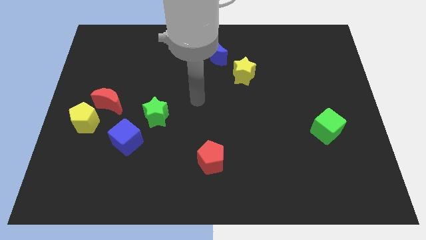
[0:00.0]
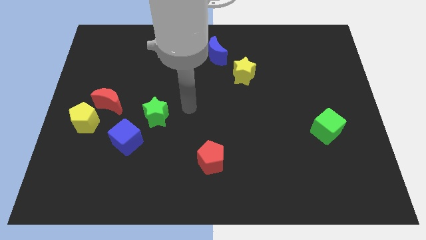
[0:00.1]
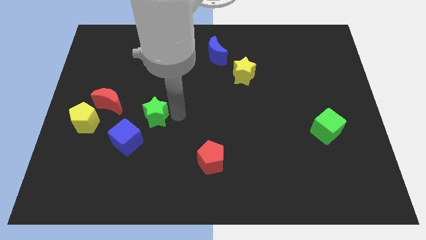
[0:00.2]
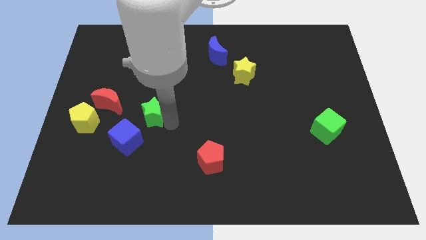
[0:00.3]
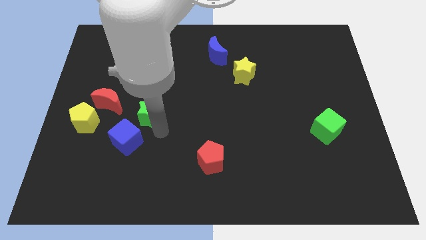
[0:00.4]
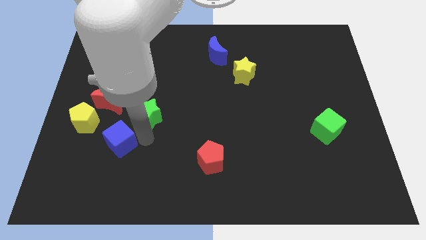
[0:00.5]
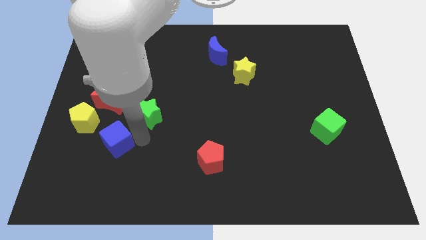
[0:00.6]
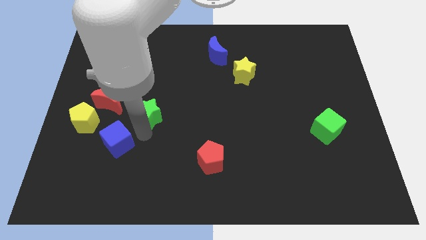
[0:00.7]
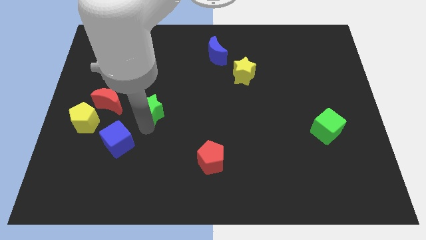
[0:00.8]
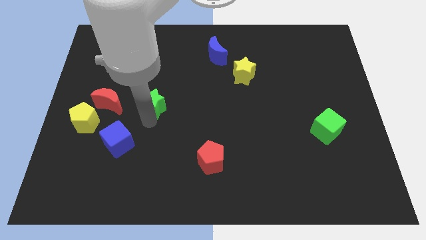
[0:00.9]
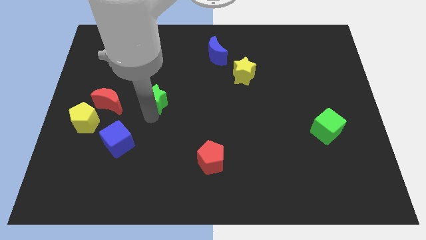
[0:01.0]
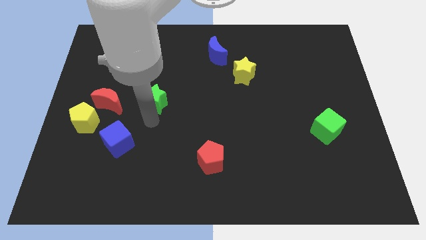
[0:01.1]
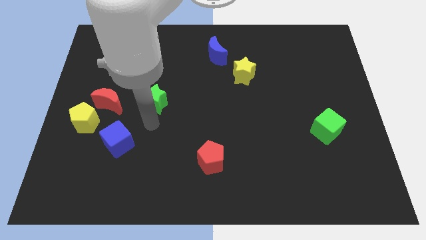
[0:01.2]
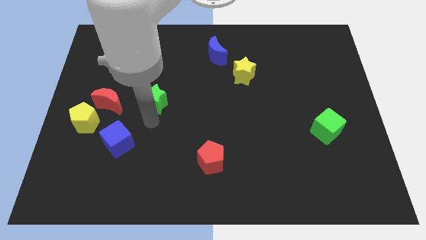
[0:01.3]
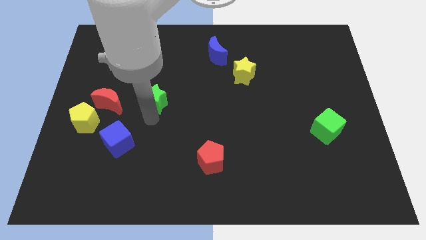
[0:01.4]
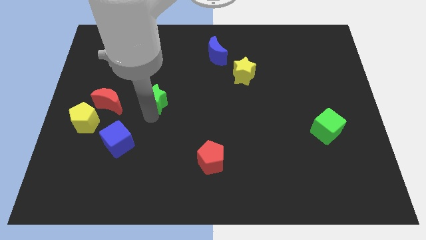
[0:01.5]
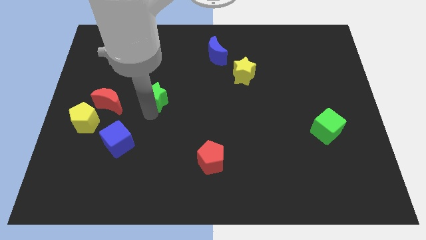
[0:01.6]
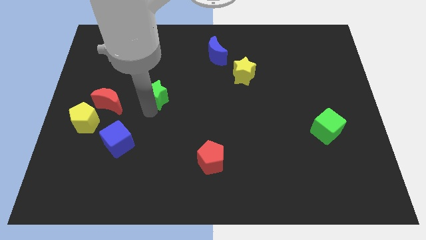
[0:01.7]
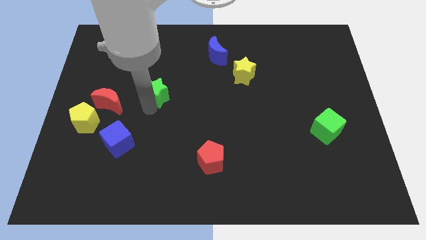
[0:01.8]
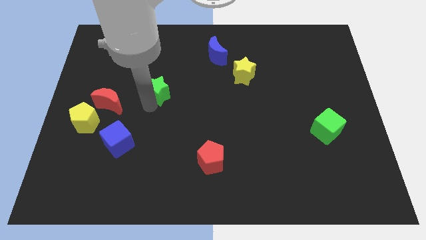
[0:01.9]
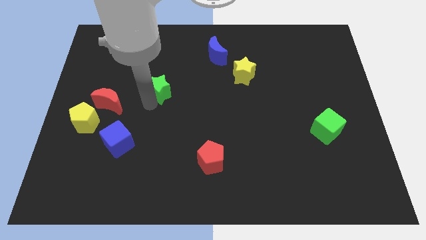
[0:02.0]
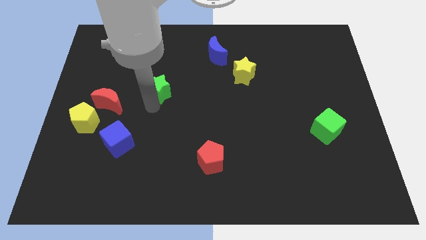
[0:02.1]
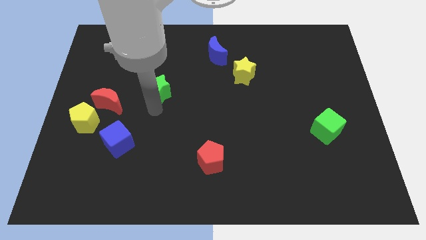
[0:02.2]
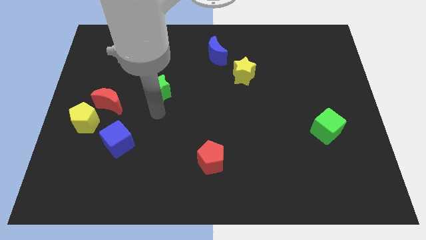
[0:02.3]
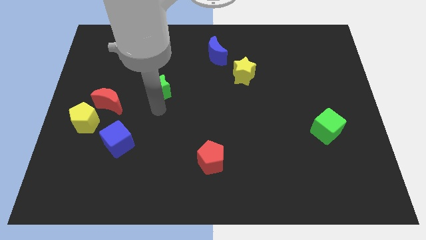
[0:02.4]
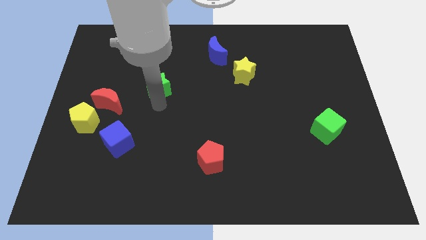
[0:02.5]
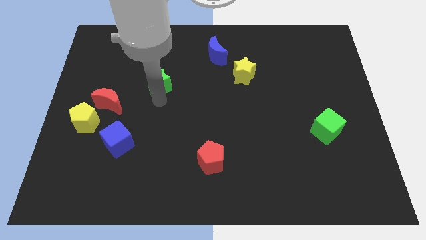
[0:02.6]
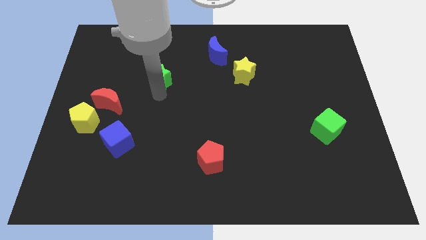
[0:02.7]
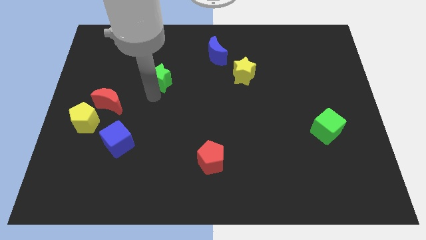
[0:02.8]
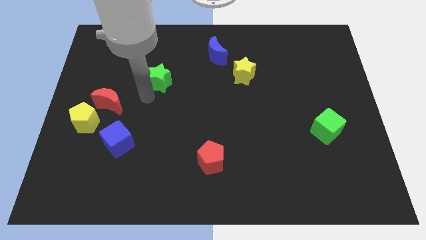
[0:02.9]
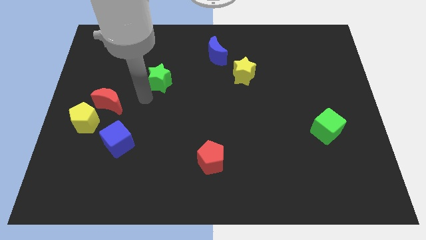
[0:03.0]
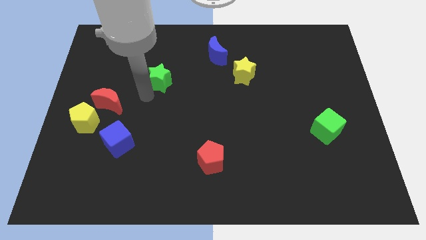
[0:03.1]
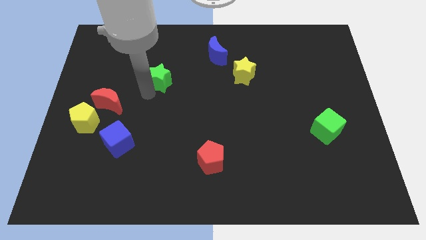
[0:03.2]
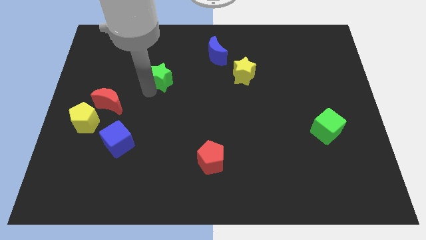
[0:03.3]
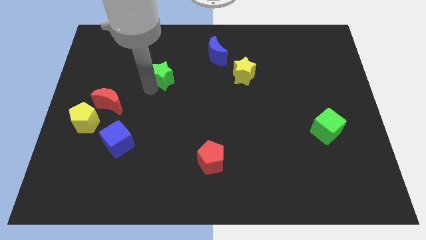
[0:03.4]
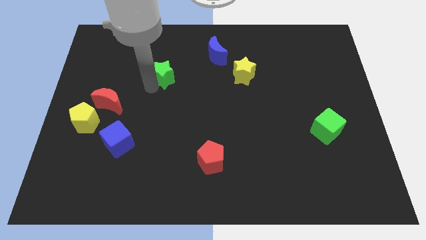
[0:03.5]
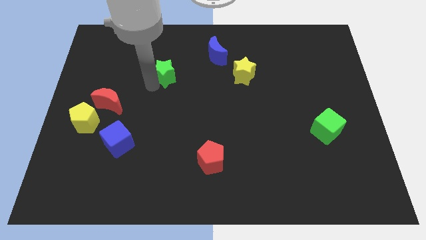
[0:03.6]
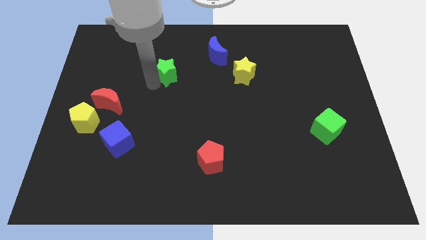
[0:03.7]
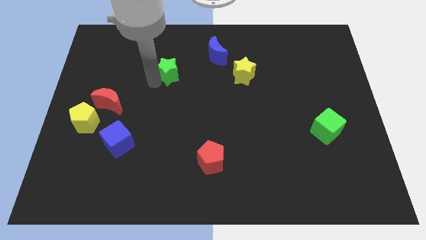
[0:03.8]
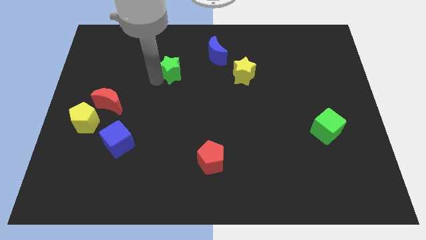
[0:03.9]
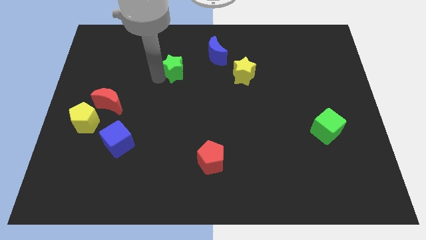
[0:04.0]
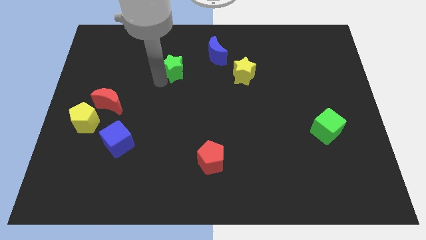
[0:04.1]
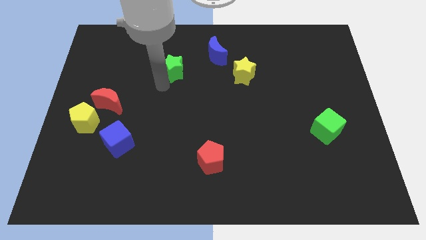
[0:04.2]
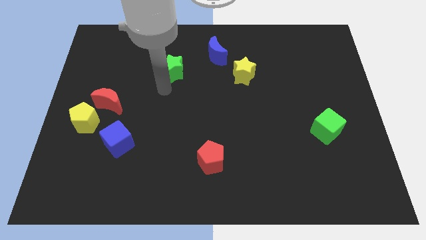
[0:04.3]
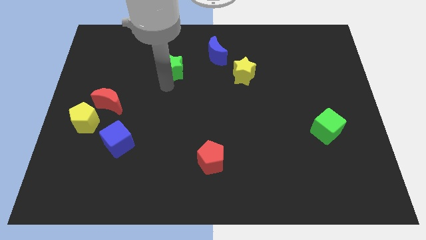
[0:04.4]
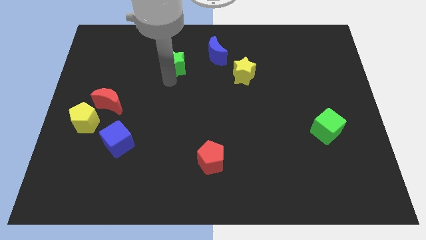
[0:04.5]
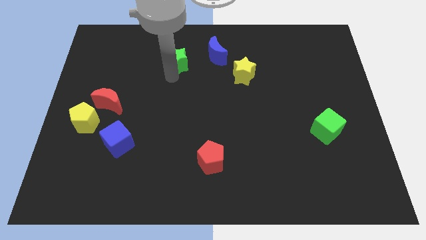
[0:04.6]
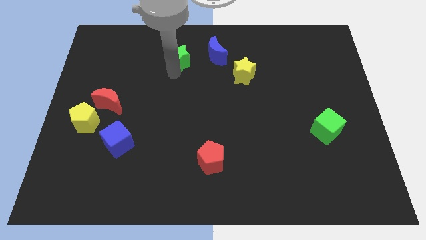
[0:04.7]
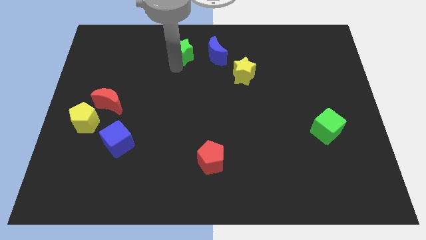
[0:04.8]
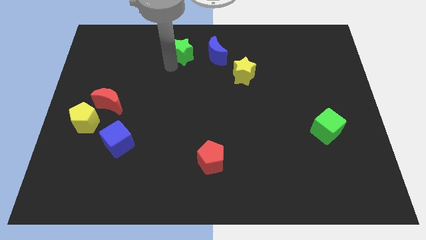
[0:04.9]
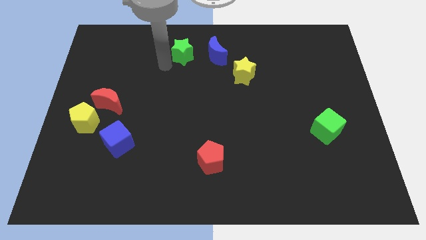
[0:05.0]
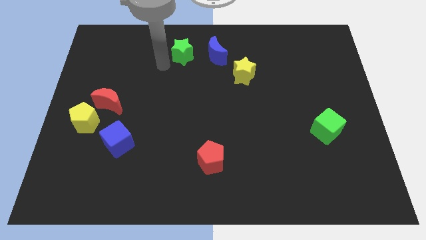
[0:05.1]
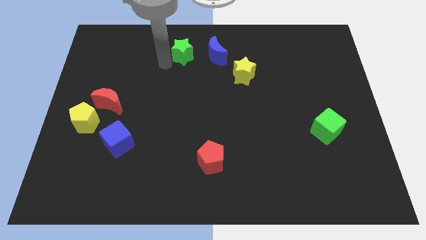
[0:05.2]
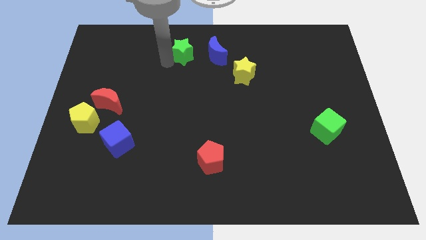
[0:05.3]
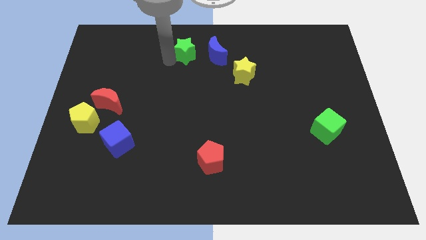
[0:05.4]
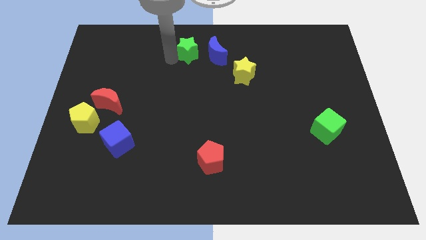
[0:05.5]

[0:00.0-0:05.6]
move the green star to the top

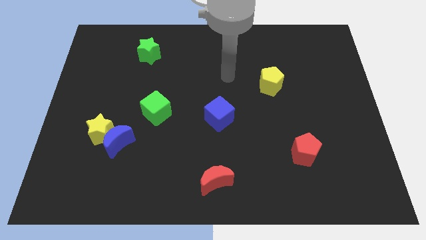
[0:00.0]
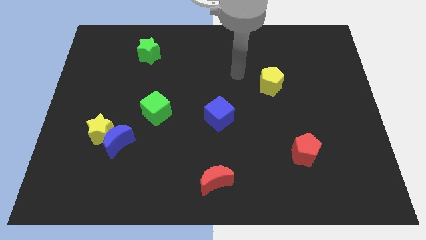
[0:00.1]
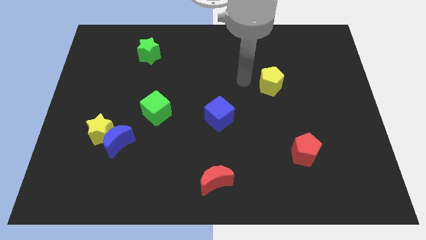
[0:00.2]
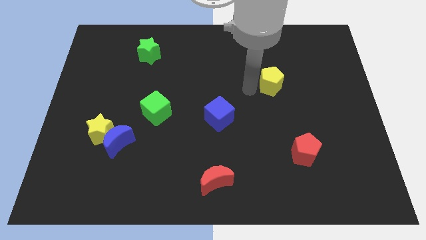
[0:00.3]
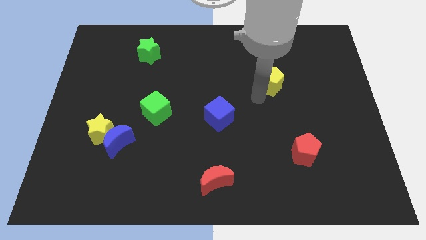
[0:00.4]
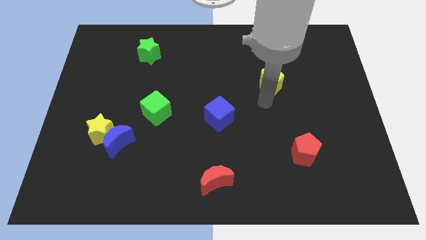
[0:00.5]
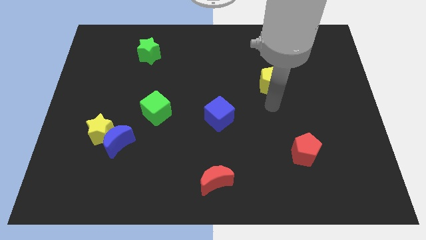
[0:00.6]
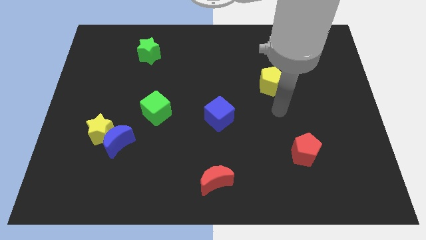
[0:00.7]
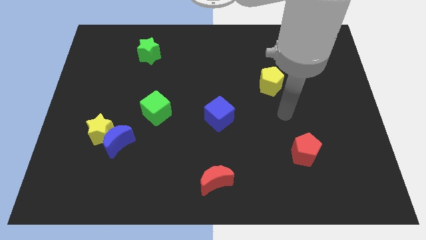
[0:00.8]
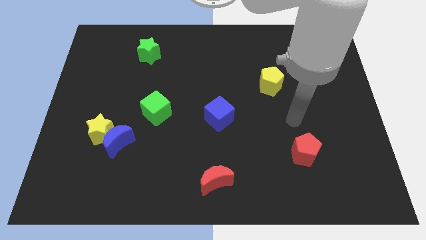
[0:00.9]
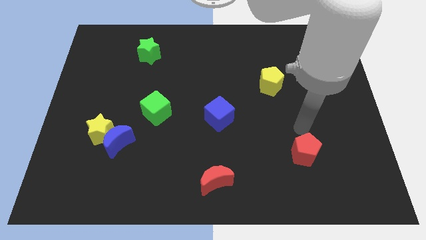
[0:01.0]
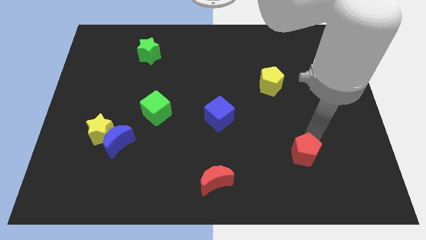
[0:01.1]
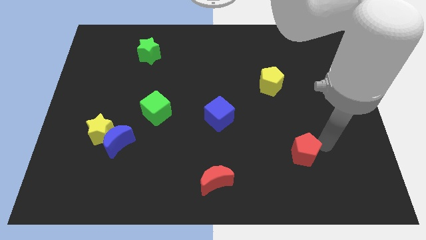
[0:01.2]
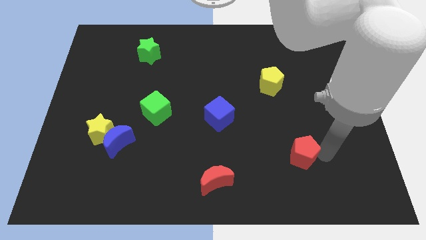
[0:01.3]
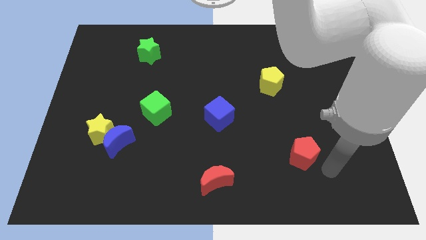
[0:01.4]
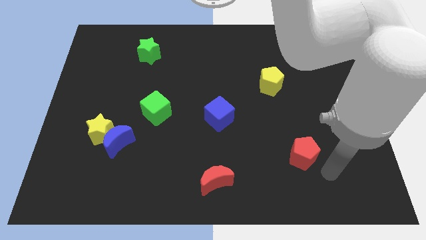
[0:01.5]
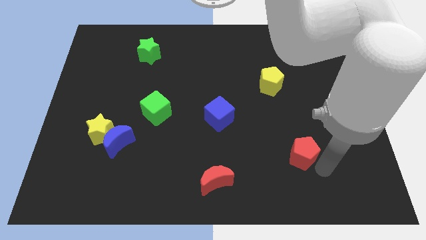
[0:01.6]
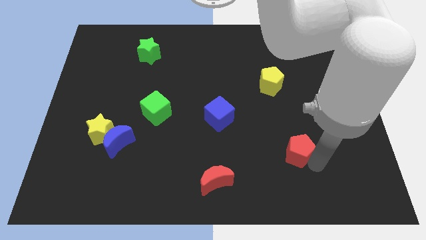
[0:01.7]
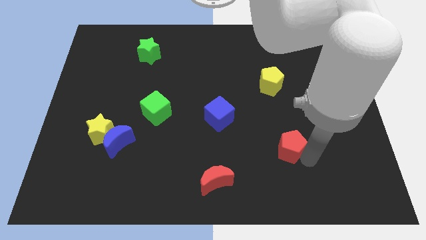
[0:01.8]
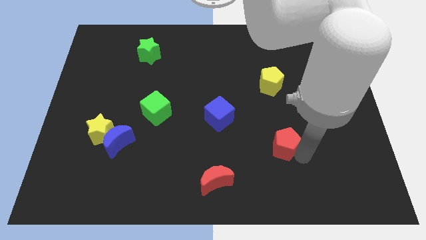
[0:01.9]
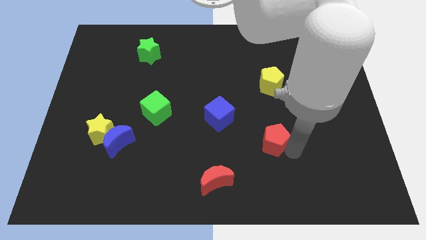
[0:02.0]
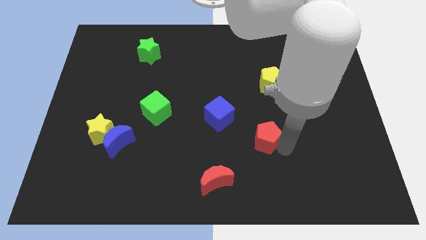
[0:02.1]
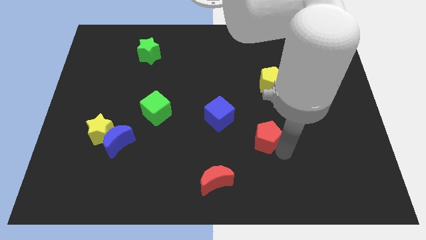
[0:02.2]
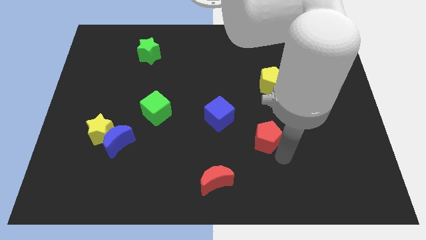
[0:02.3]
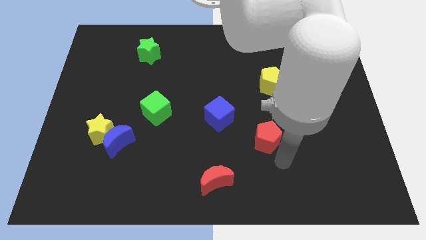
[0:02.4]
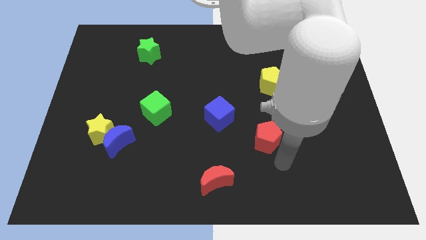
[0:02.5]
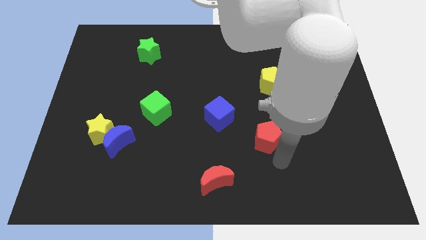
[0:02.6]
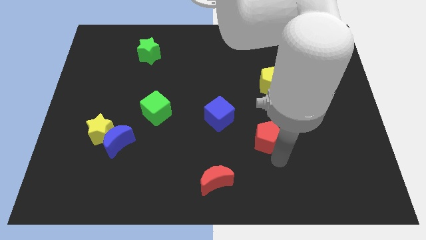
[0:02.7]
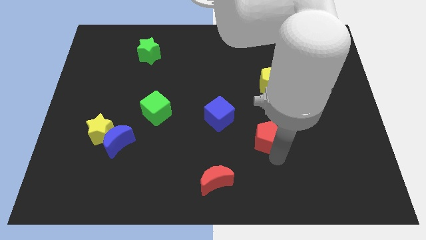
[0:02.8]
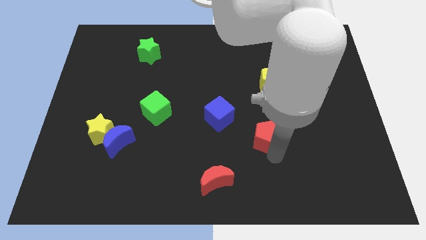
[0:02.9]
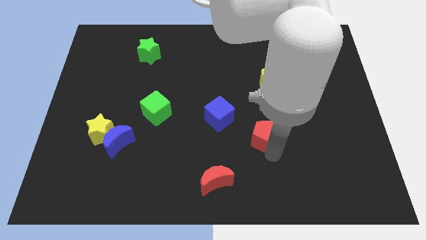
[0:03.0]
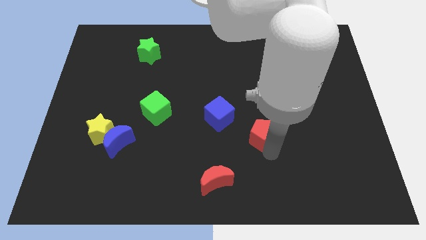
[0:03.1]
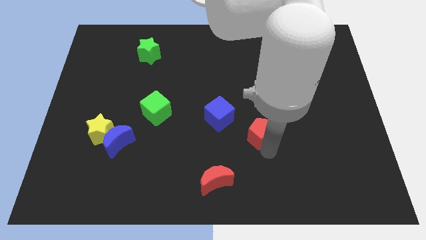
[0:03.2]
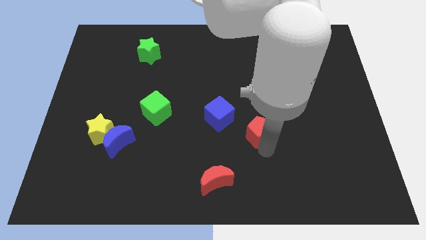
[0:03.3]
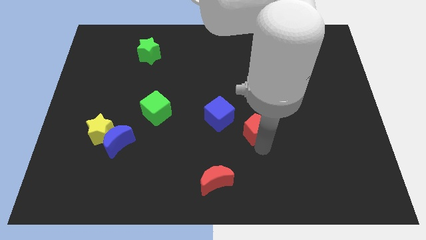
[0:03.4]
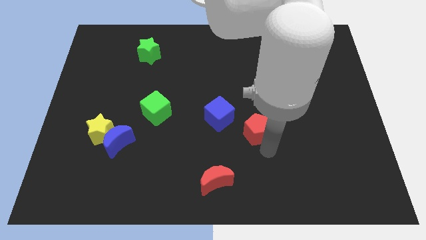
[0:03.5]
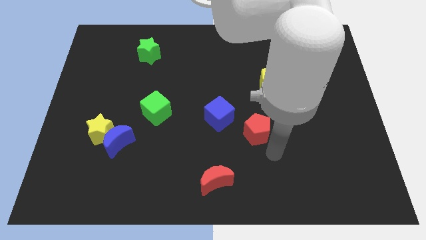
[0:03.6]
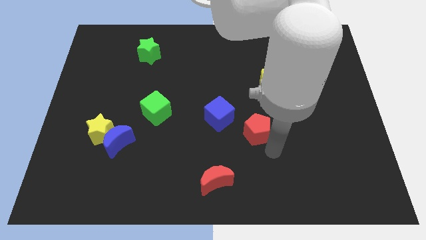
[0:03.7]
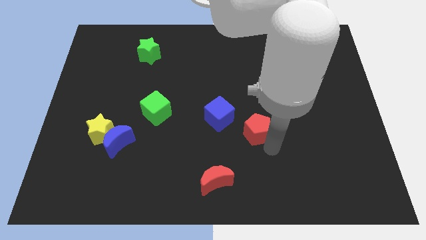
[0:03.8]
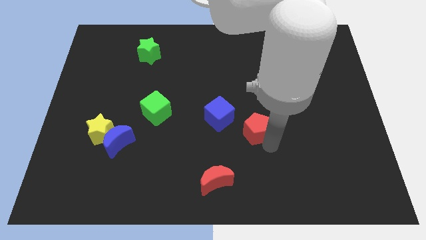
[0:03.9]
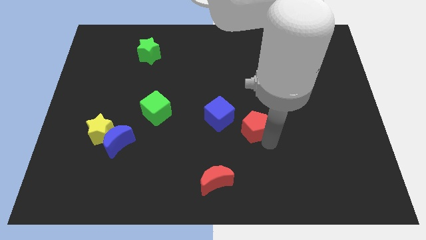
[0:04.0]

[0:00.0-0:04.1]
slide the red pentagon to the middle of the board
